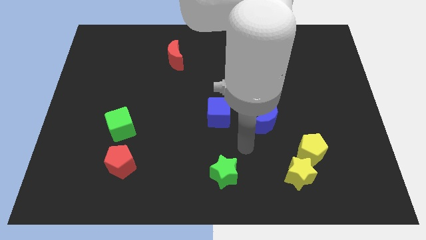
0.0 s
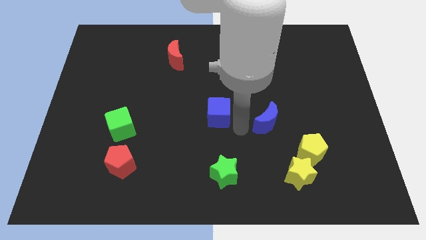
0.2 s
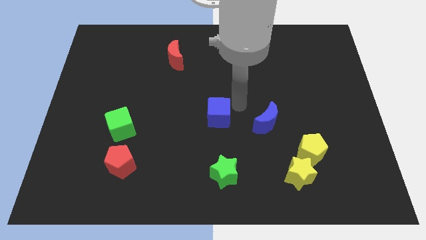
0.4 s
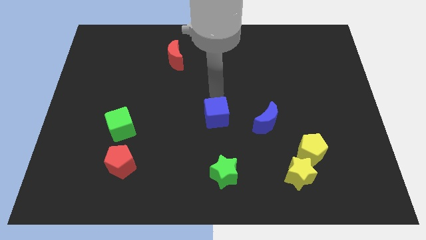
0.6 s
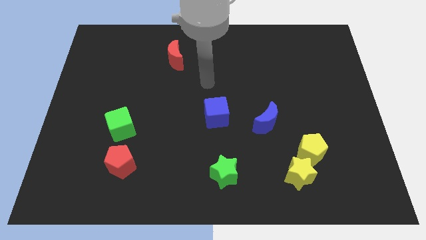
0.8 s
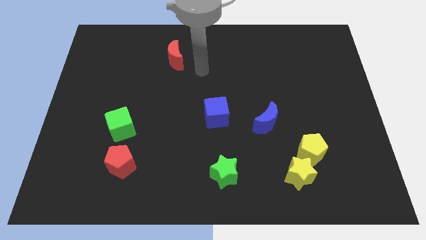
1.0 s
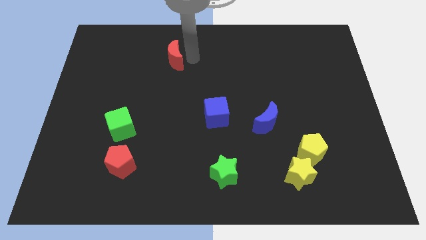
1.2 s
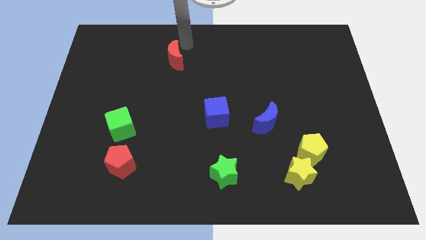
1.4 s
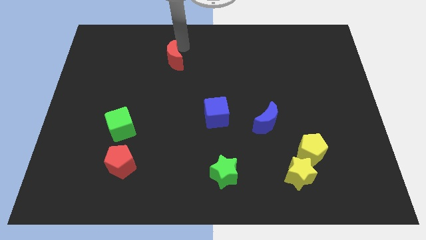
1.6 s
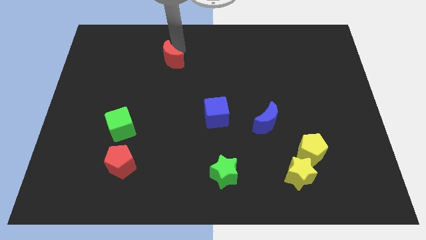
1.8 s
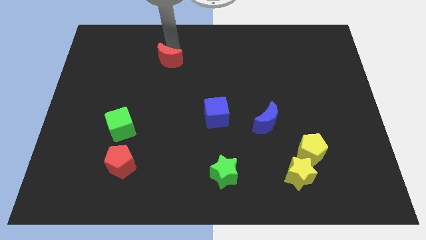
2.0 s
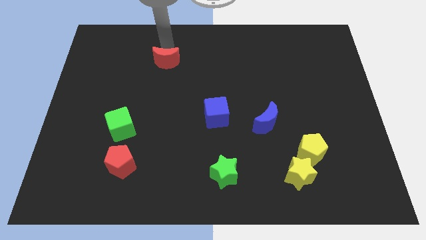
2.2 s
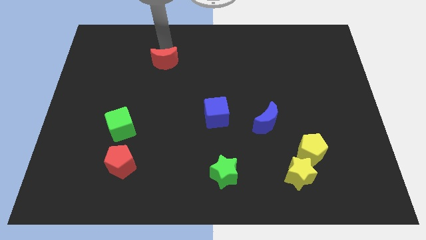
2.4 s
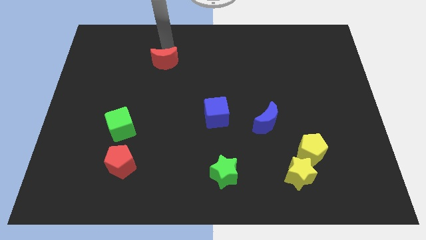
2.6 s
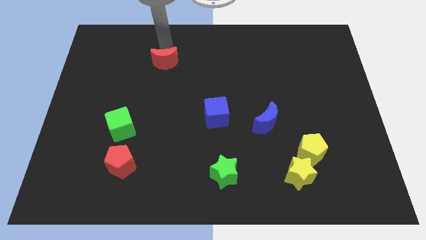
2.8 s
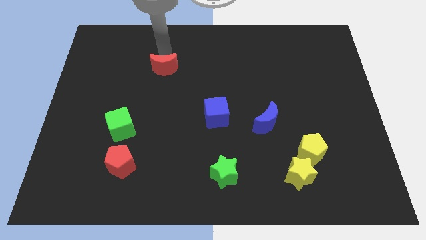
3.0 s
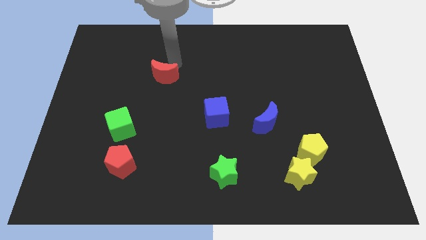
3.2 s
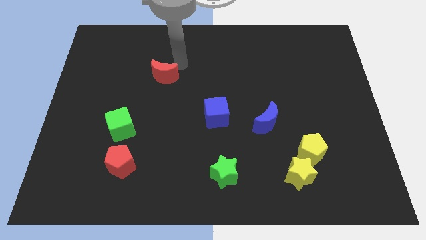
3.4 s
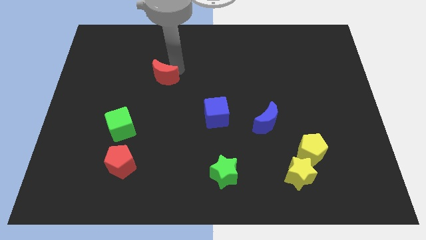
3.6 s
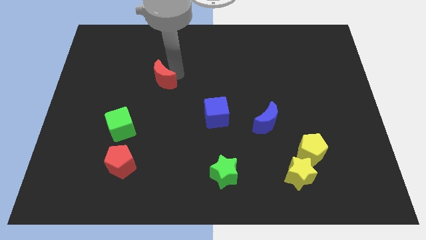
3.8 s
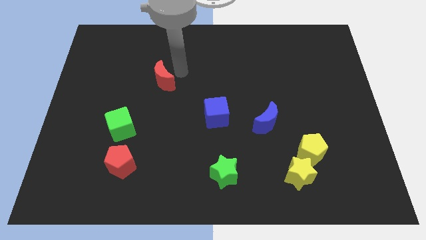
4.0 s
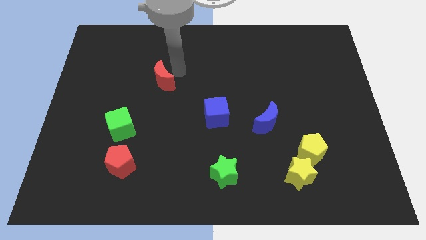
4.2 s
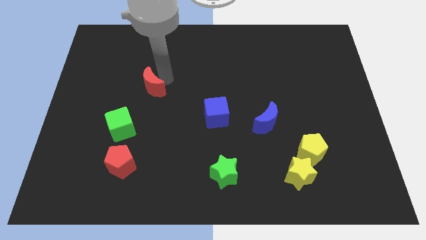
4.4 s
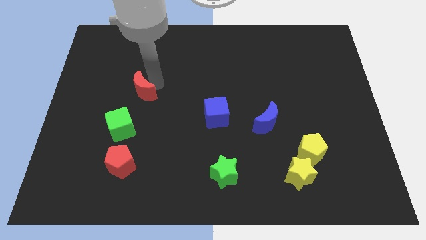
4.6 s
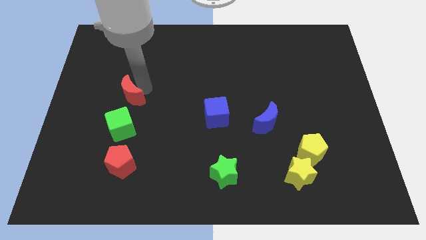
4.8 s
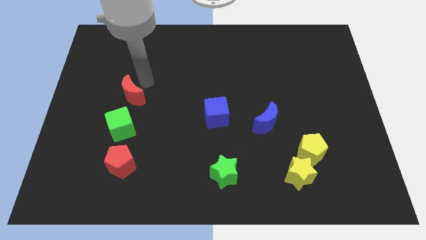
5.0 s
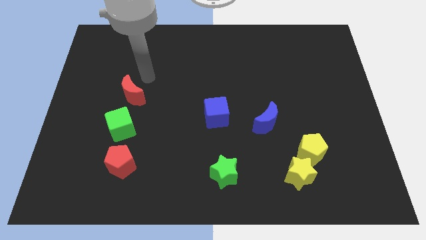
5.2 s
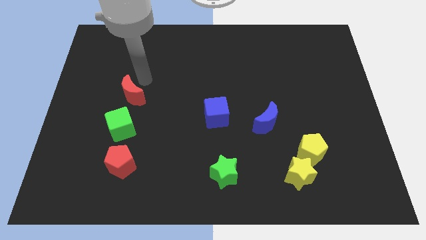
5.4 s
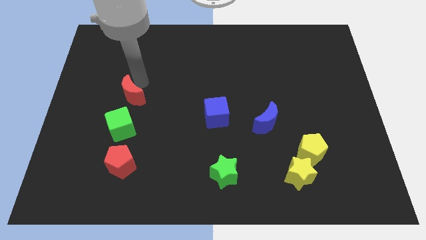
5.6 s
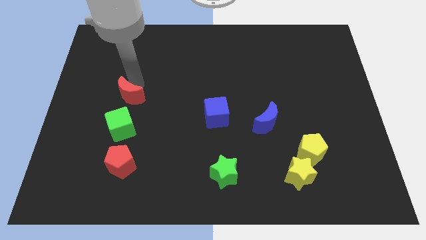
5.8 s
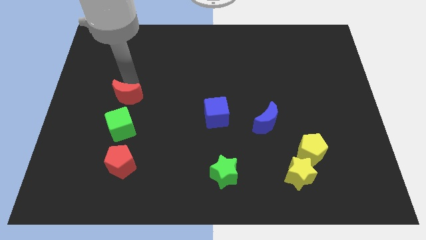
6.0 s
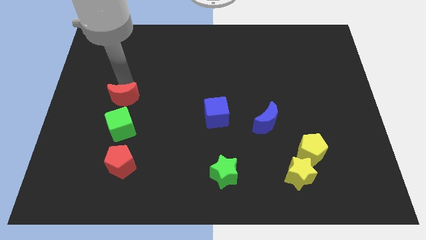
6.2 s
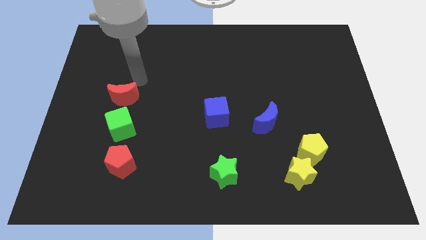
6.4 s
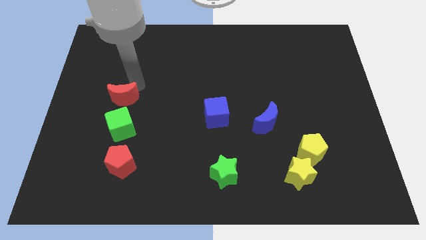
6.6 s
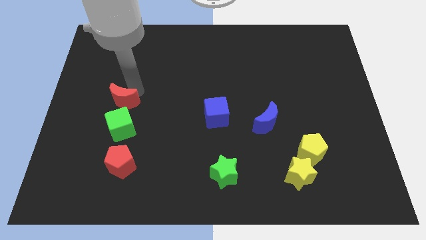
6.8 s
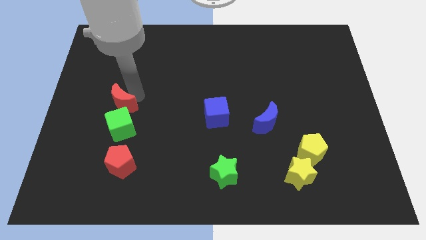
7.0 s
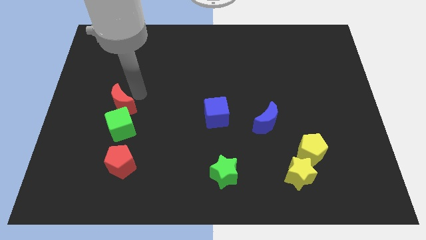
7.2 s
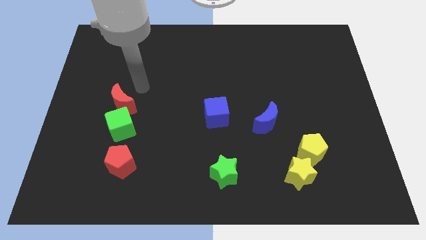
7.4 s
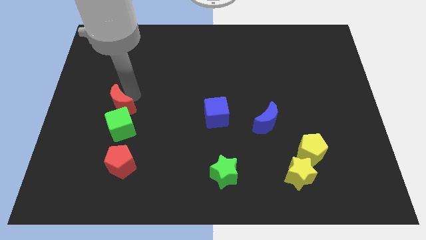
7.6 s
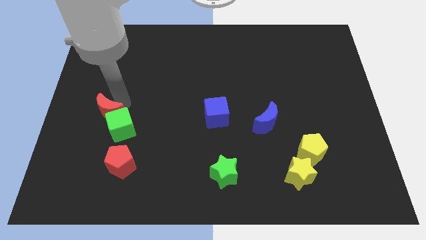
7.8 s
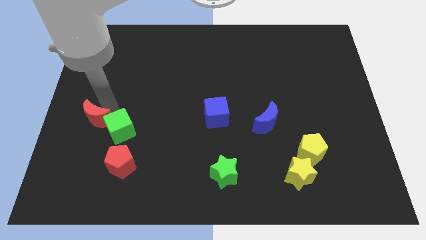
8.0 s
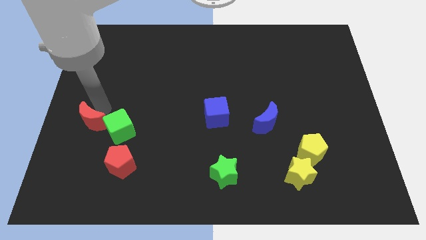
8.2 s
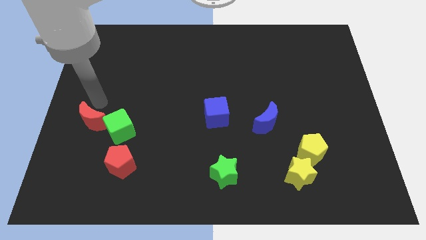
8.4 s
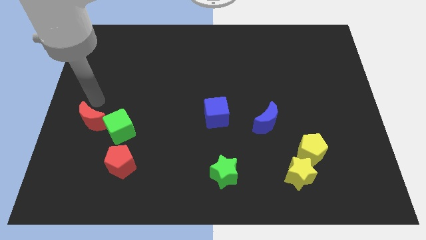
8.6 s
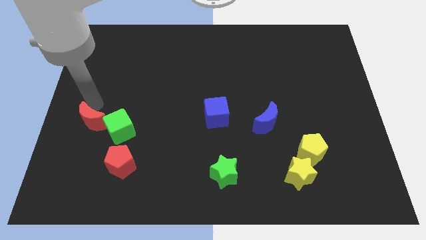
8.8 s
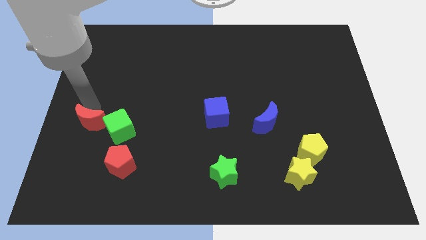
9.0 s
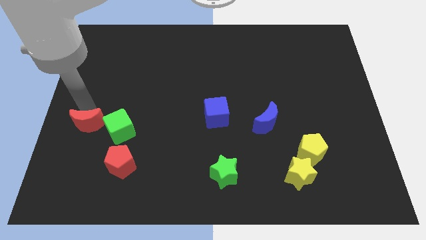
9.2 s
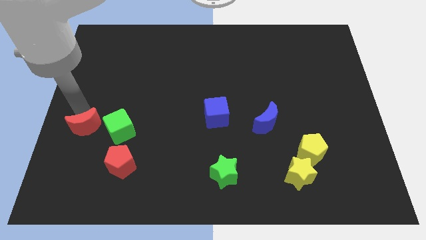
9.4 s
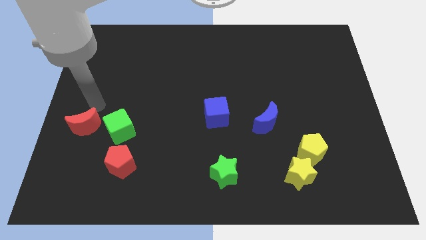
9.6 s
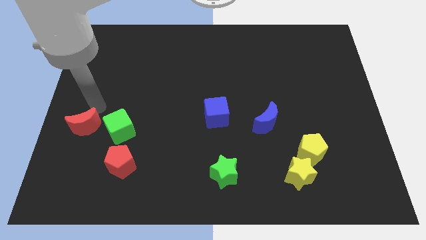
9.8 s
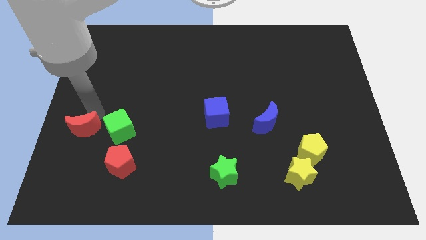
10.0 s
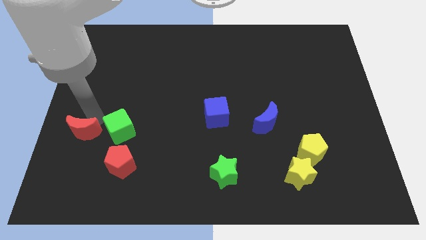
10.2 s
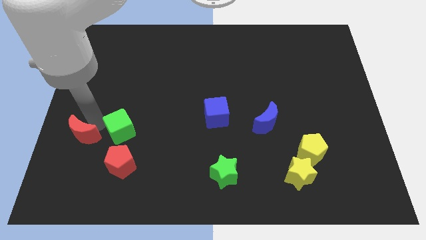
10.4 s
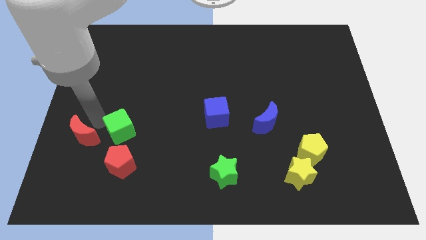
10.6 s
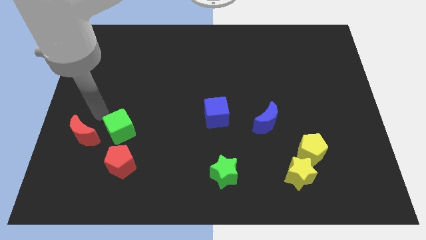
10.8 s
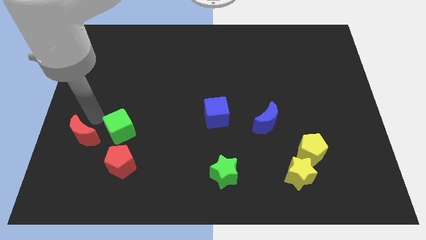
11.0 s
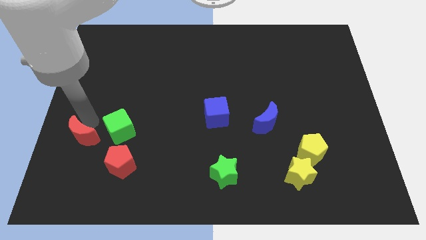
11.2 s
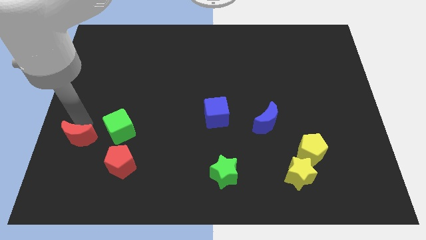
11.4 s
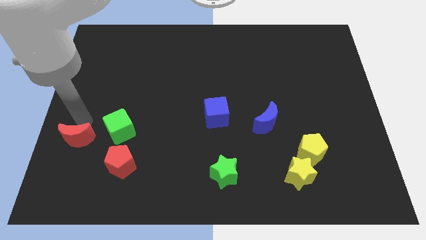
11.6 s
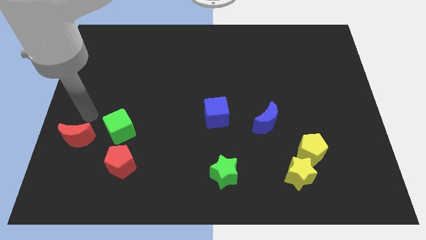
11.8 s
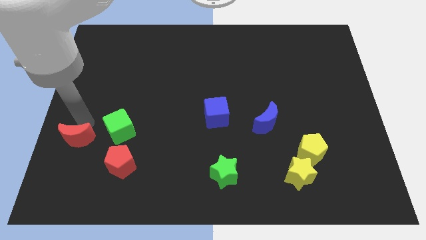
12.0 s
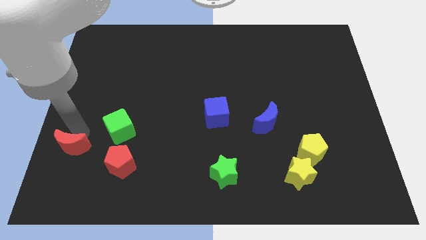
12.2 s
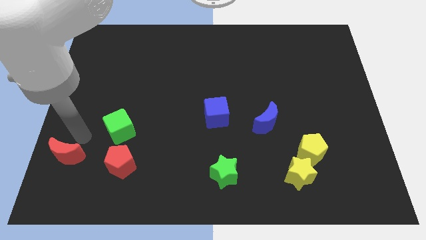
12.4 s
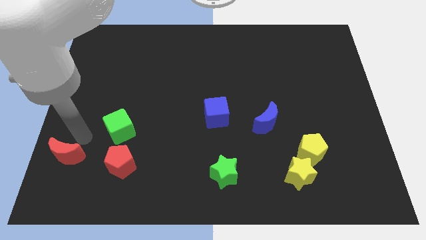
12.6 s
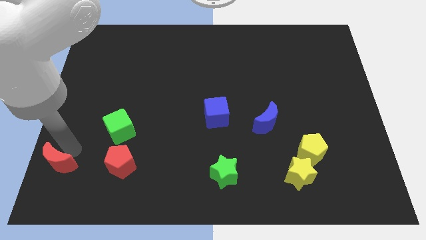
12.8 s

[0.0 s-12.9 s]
move the red moon to the lower left corner
